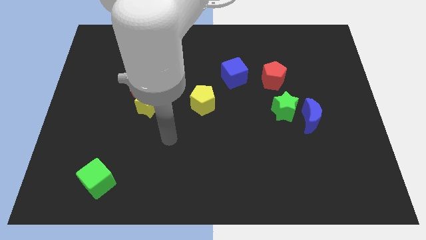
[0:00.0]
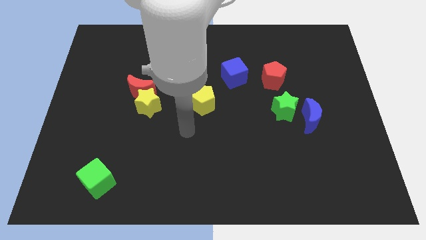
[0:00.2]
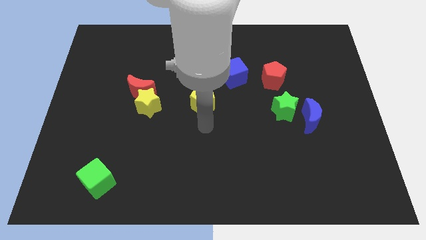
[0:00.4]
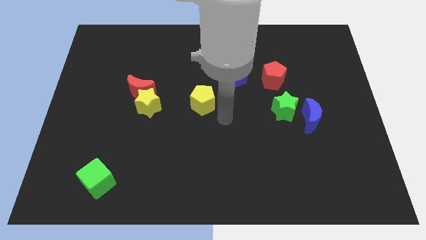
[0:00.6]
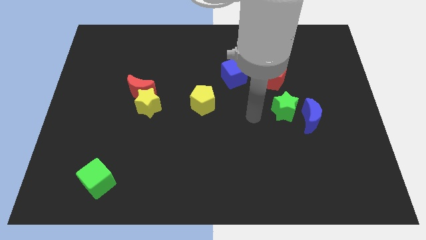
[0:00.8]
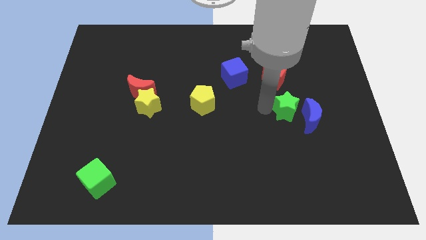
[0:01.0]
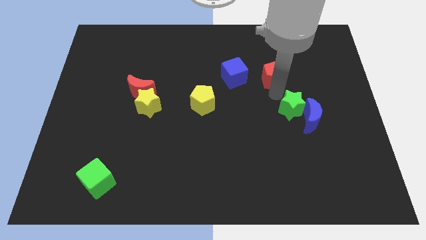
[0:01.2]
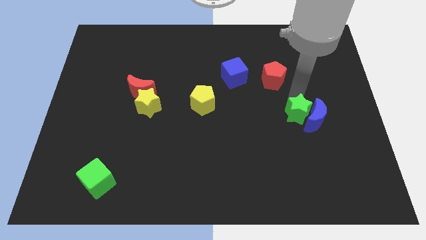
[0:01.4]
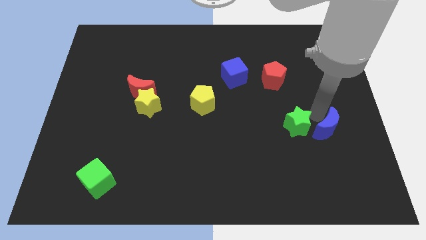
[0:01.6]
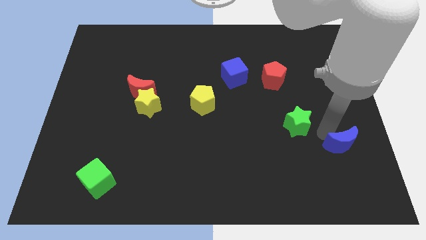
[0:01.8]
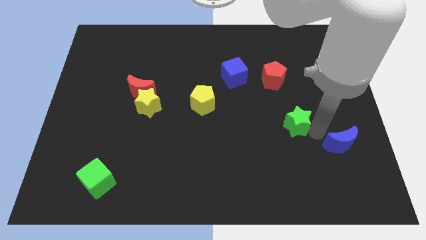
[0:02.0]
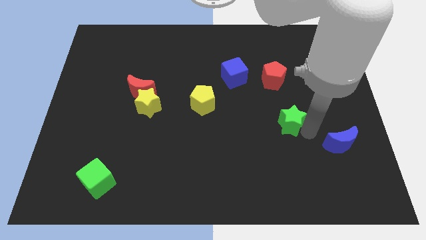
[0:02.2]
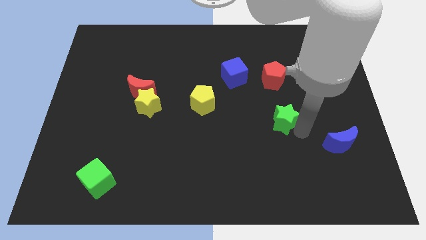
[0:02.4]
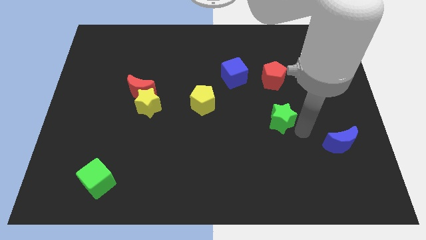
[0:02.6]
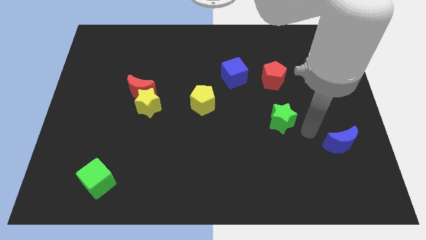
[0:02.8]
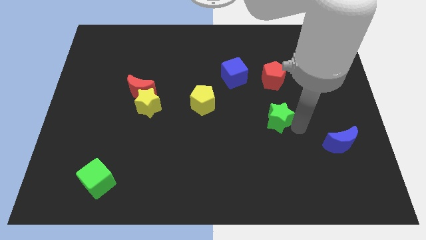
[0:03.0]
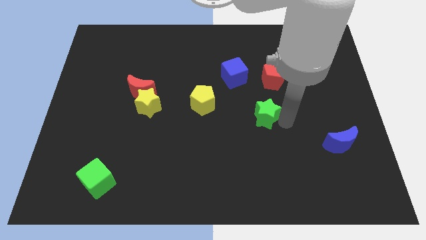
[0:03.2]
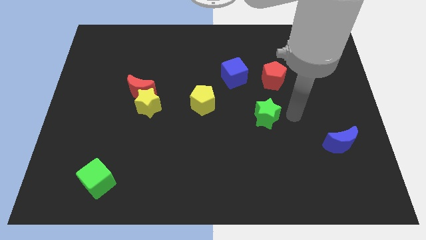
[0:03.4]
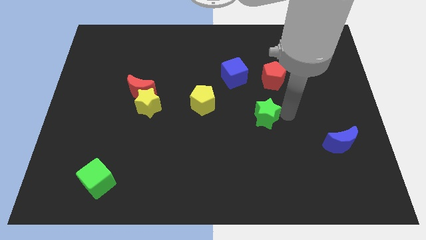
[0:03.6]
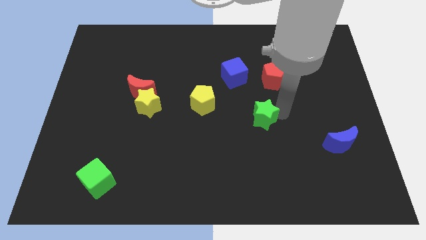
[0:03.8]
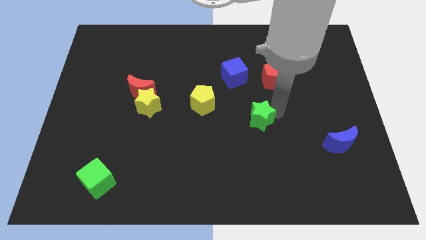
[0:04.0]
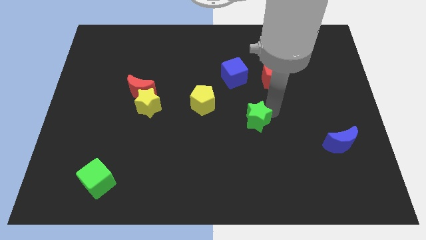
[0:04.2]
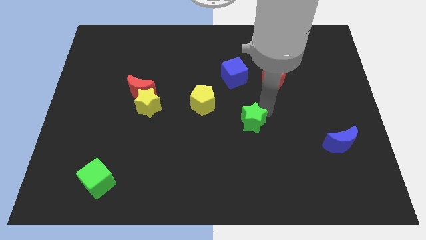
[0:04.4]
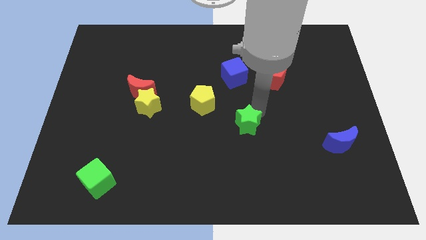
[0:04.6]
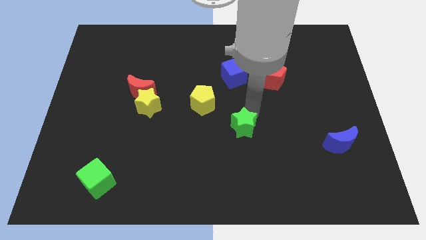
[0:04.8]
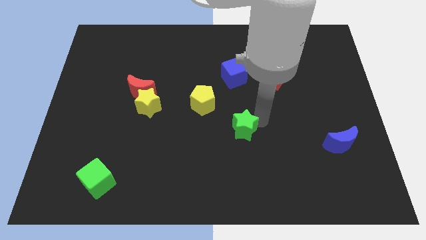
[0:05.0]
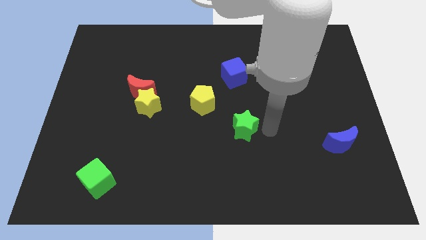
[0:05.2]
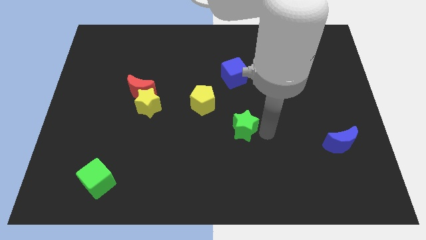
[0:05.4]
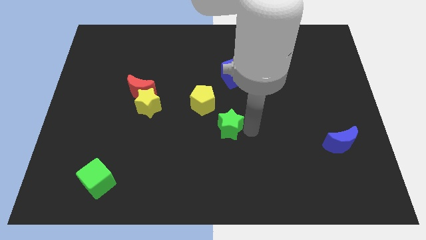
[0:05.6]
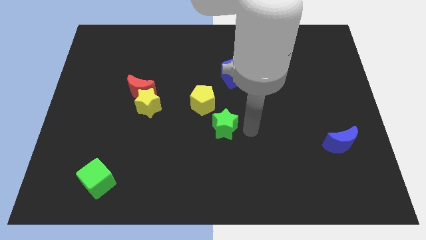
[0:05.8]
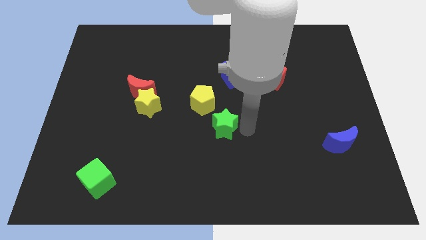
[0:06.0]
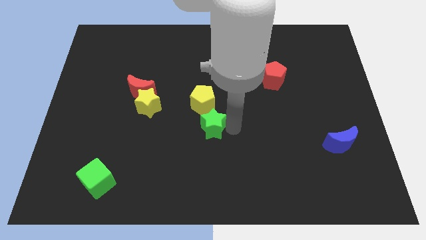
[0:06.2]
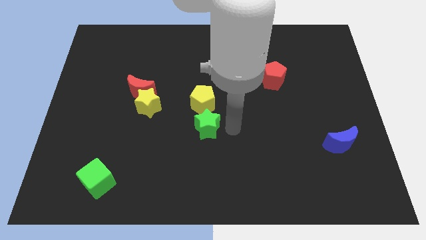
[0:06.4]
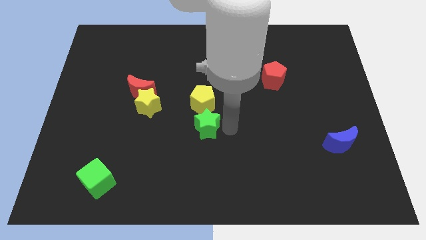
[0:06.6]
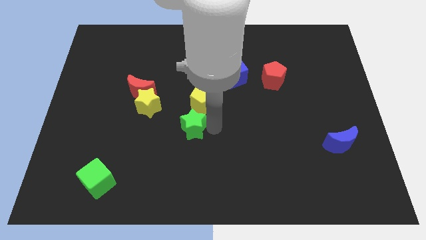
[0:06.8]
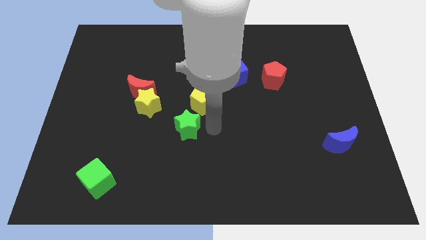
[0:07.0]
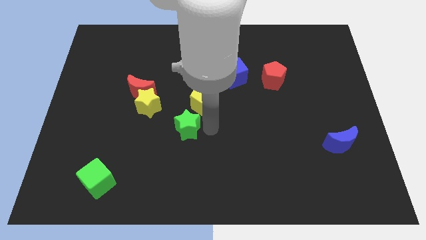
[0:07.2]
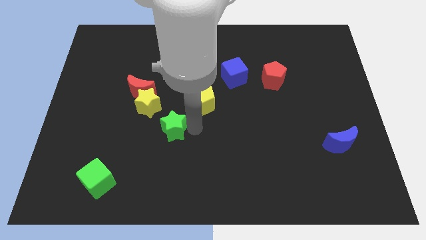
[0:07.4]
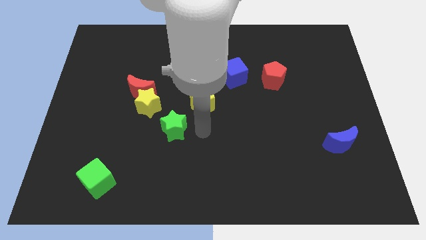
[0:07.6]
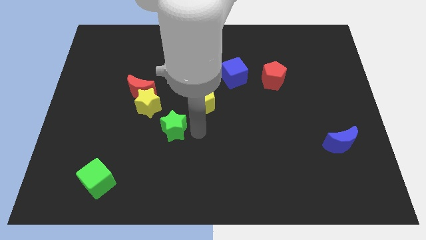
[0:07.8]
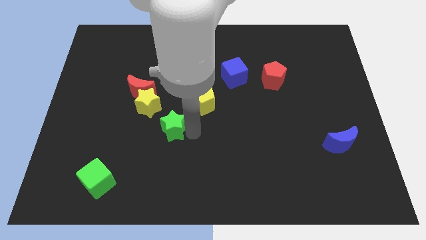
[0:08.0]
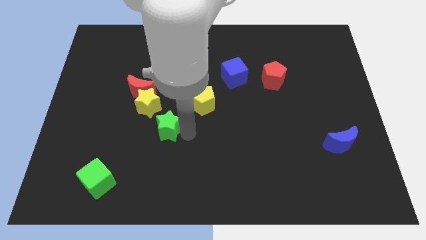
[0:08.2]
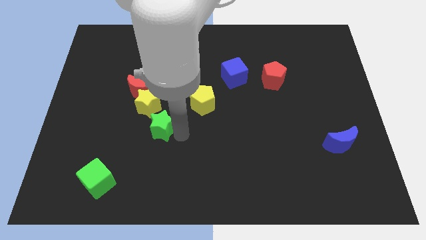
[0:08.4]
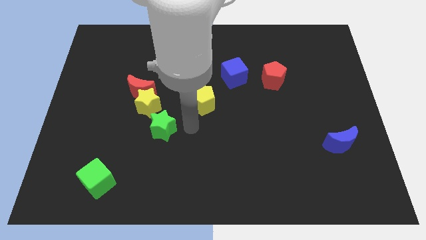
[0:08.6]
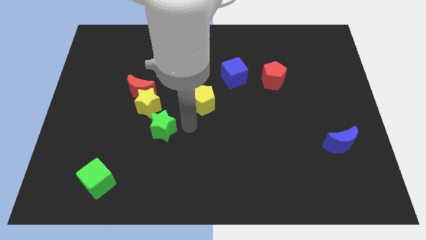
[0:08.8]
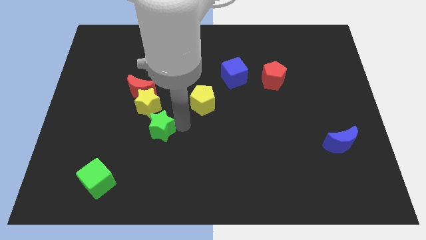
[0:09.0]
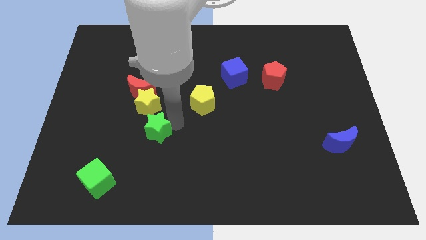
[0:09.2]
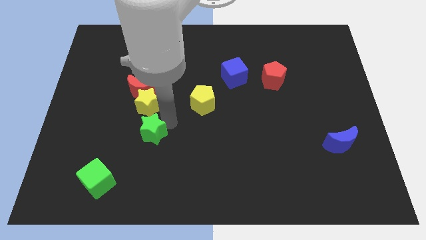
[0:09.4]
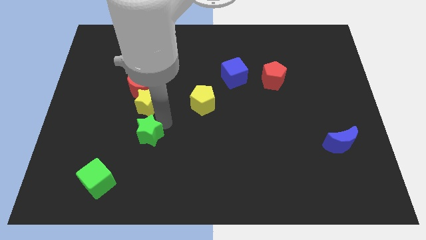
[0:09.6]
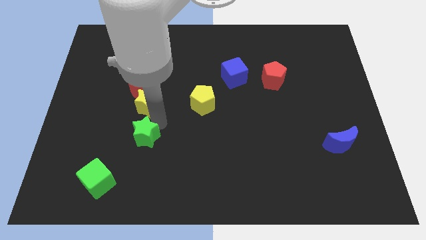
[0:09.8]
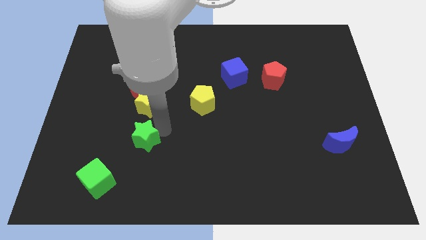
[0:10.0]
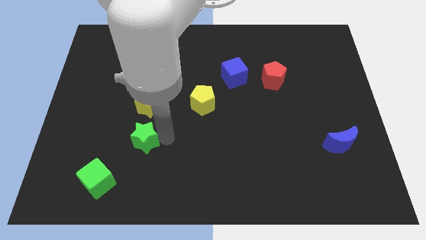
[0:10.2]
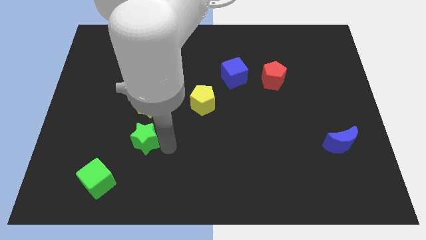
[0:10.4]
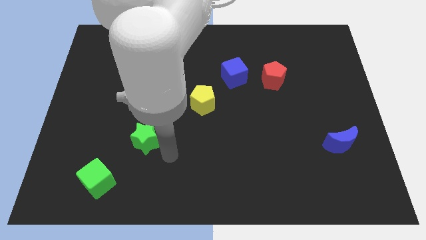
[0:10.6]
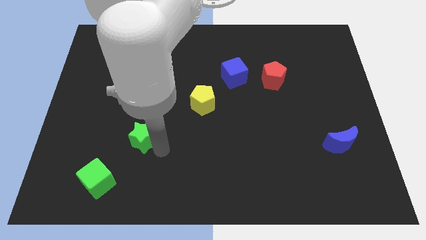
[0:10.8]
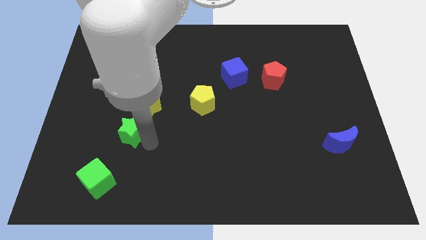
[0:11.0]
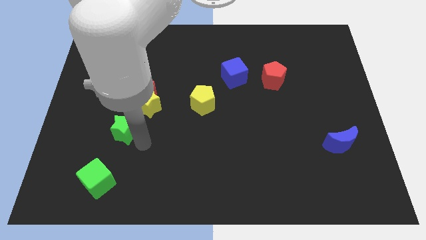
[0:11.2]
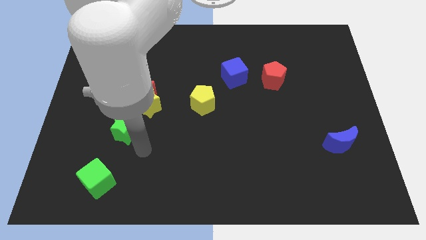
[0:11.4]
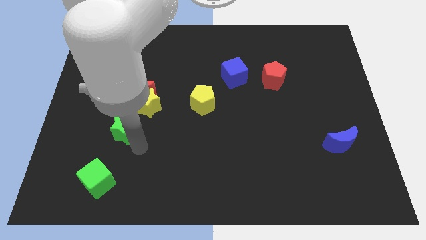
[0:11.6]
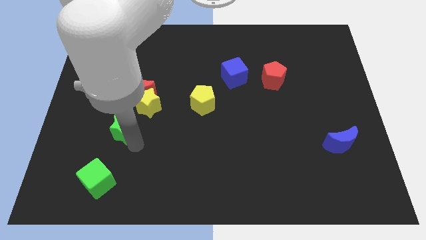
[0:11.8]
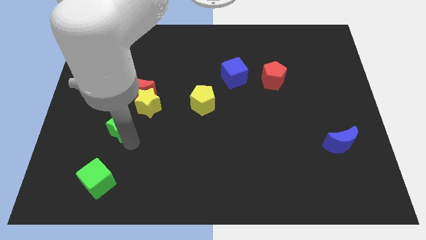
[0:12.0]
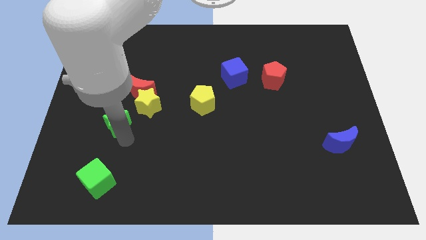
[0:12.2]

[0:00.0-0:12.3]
slide the green star diagonally down and to the left of the red moon

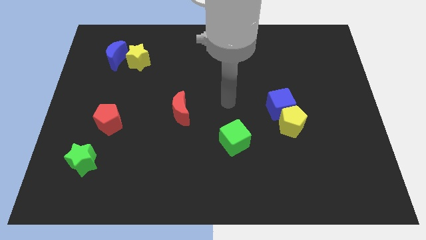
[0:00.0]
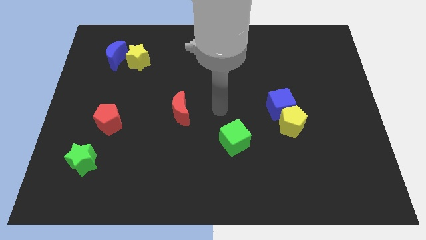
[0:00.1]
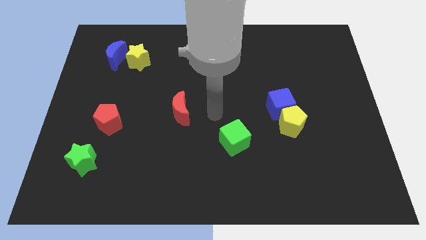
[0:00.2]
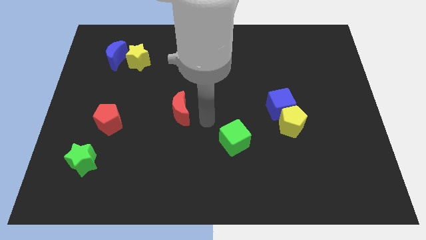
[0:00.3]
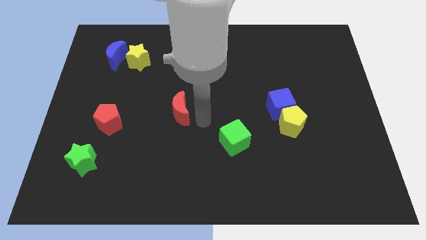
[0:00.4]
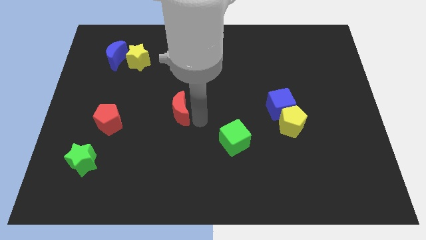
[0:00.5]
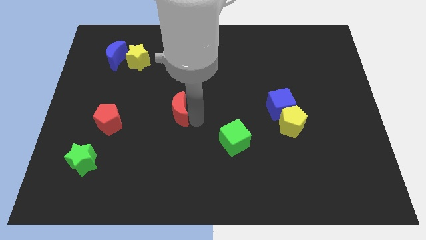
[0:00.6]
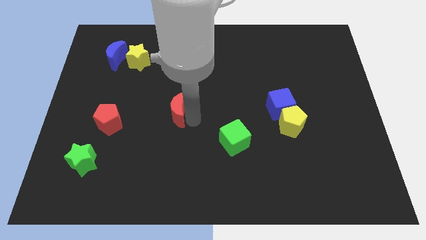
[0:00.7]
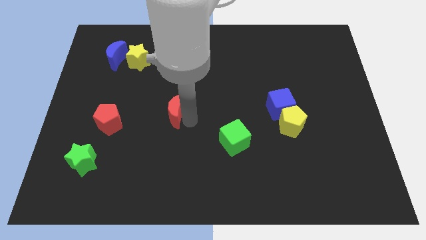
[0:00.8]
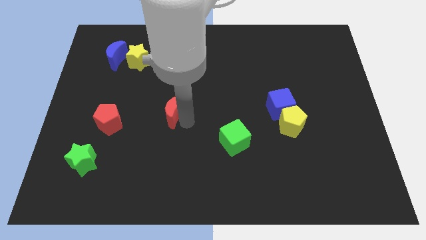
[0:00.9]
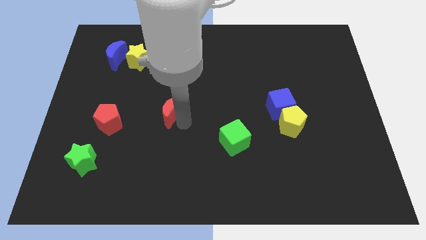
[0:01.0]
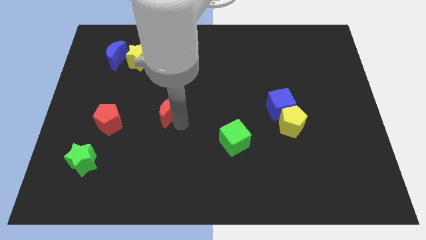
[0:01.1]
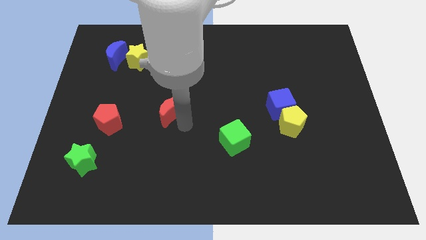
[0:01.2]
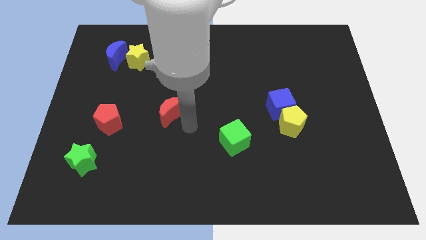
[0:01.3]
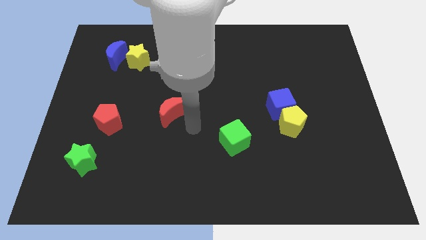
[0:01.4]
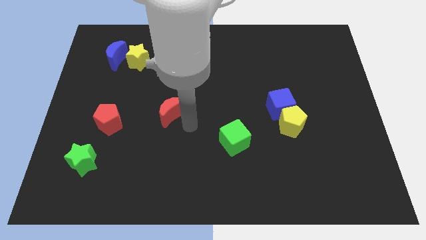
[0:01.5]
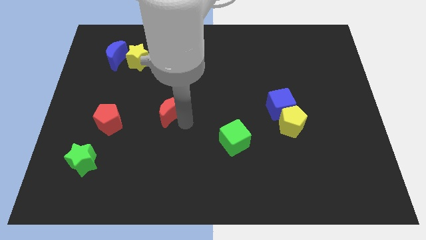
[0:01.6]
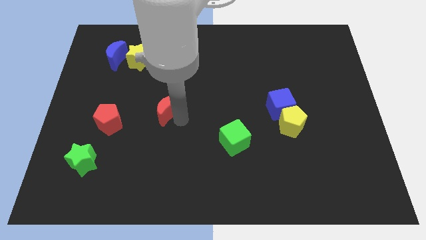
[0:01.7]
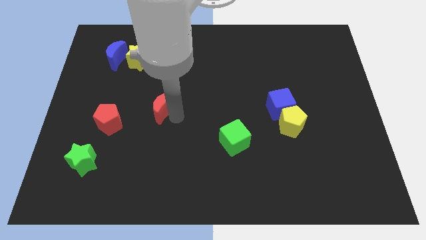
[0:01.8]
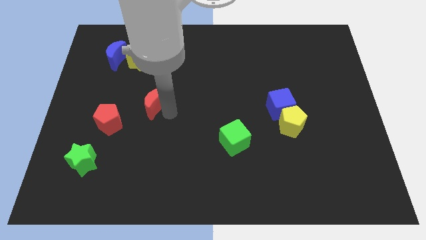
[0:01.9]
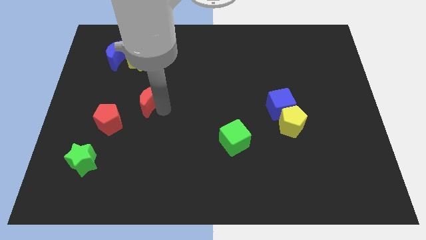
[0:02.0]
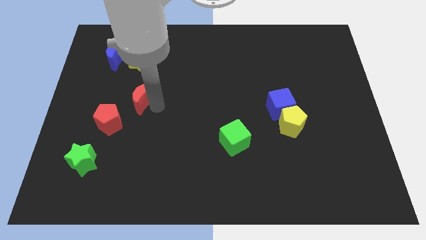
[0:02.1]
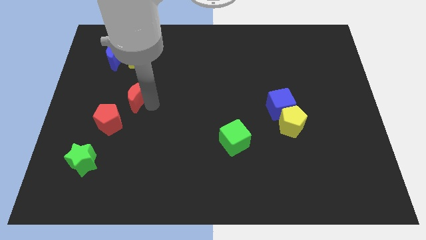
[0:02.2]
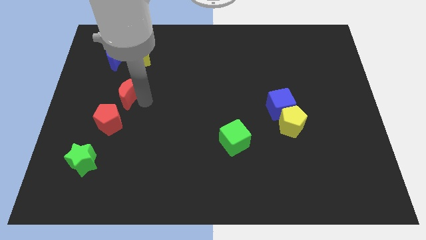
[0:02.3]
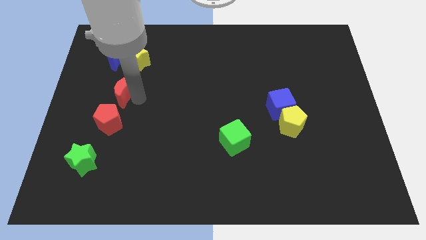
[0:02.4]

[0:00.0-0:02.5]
put the red moon to the bottom of the blue moon
